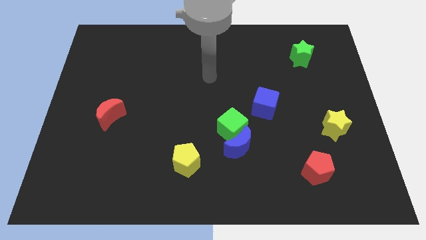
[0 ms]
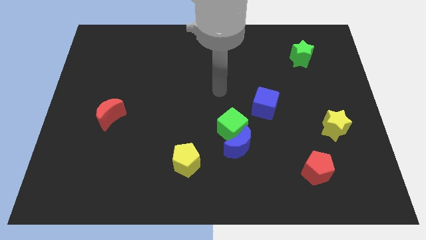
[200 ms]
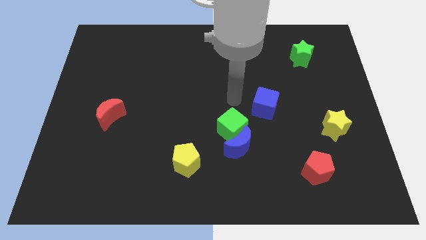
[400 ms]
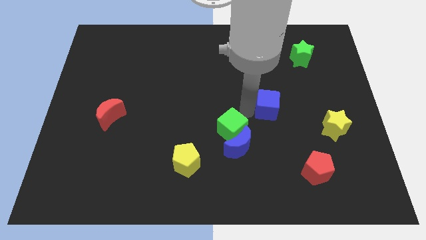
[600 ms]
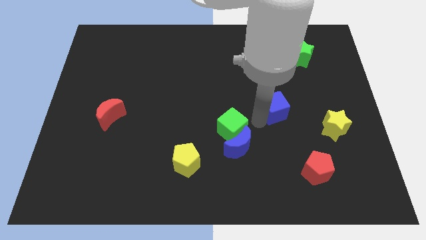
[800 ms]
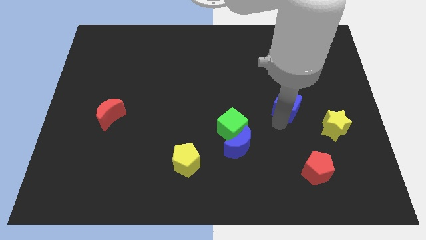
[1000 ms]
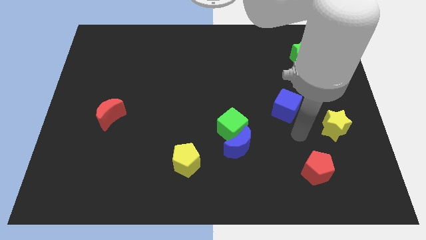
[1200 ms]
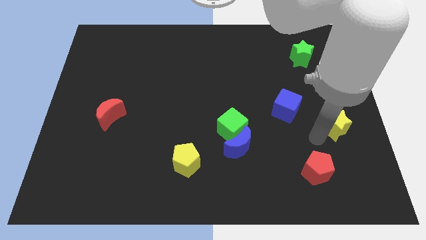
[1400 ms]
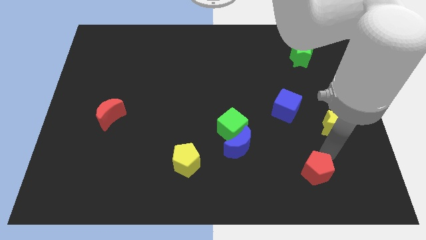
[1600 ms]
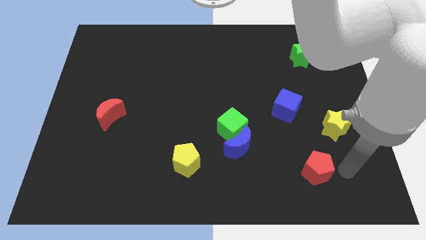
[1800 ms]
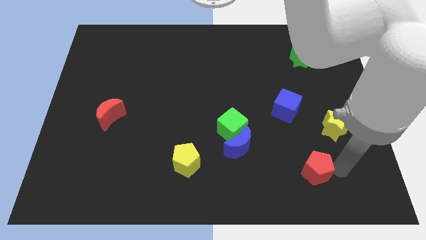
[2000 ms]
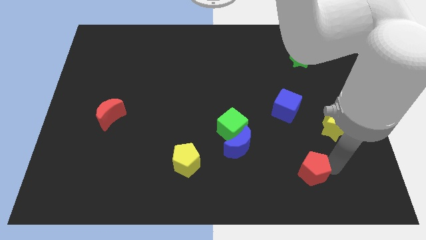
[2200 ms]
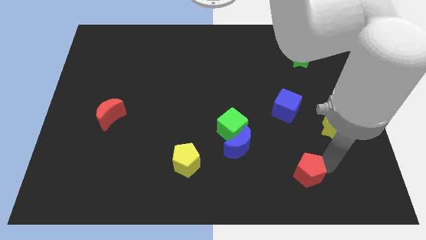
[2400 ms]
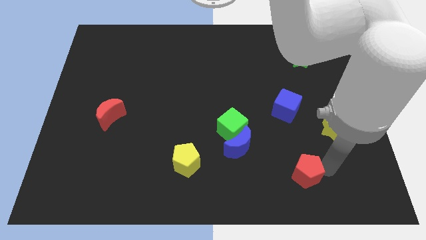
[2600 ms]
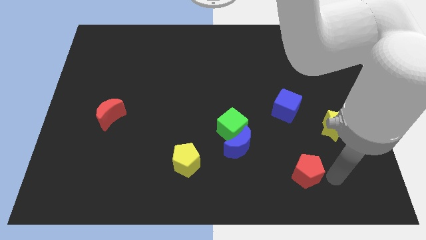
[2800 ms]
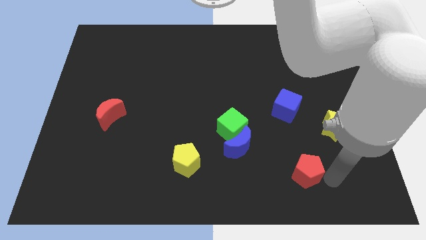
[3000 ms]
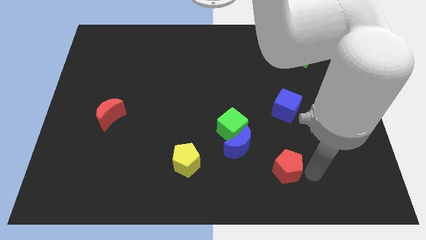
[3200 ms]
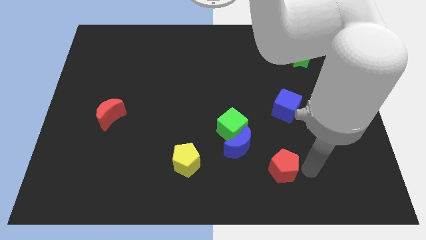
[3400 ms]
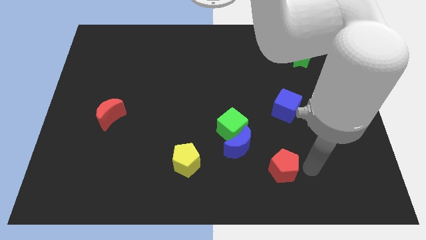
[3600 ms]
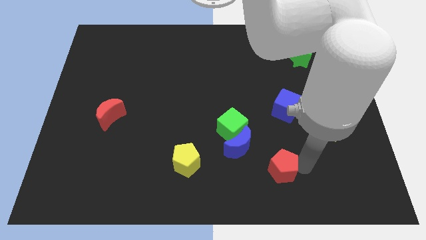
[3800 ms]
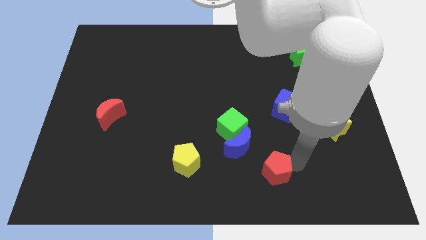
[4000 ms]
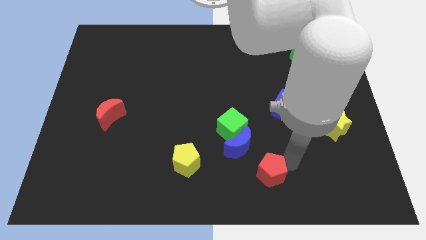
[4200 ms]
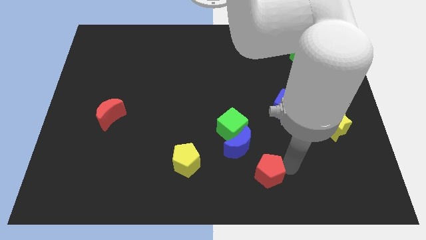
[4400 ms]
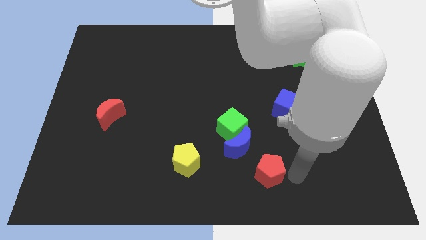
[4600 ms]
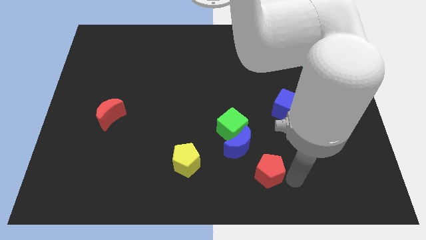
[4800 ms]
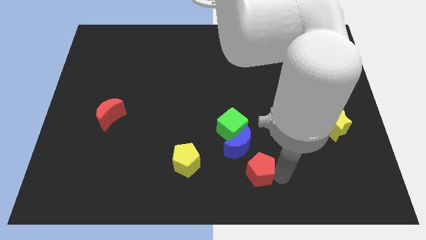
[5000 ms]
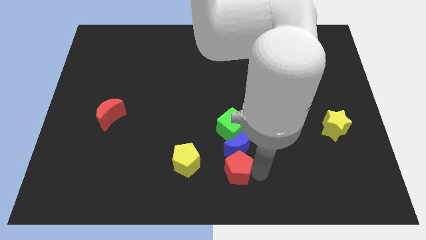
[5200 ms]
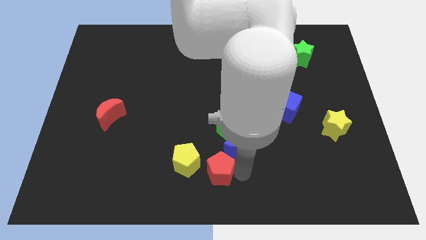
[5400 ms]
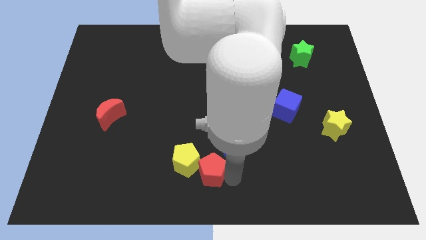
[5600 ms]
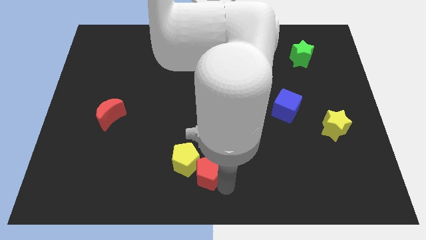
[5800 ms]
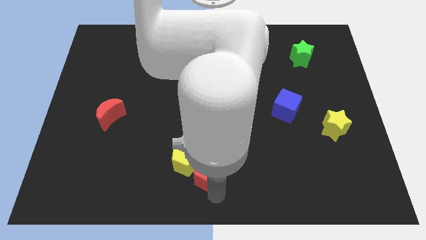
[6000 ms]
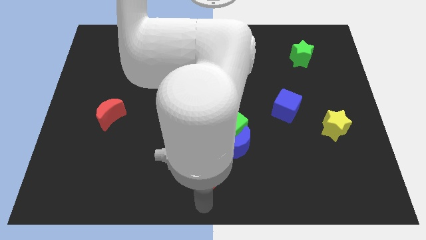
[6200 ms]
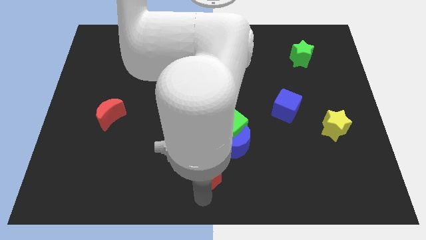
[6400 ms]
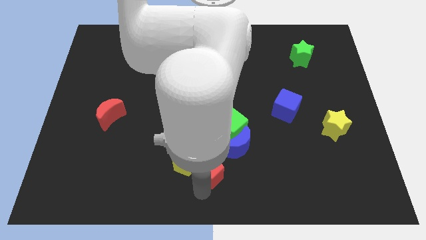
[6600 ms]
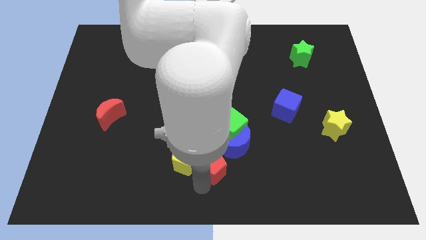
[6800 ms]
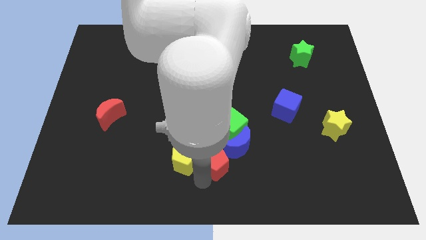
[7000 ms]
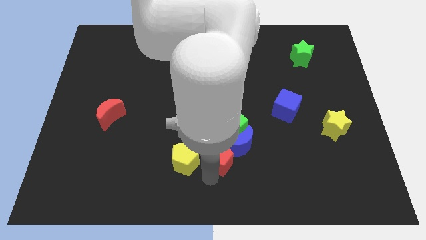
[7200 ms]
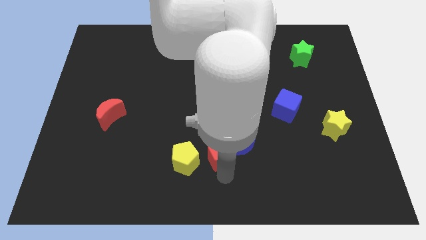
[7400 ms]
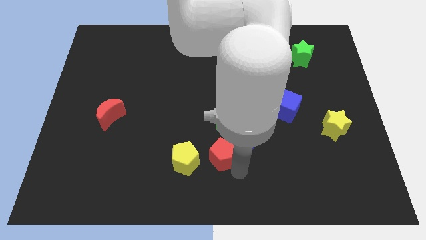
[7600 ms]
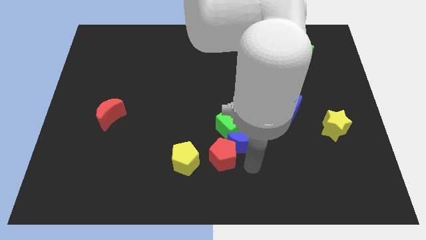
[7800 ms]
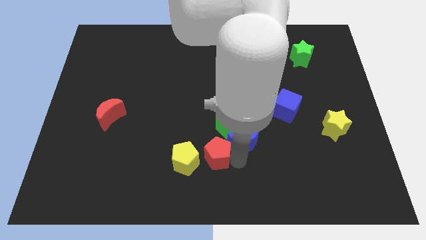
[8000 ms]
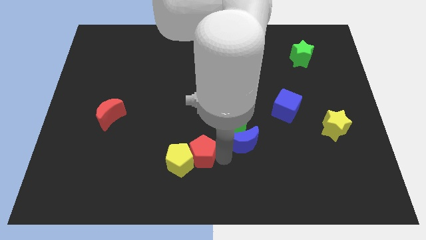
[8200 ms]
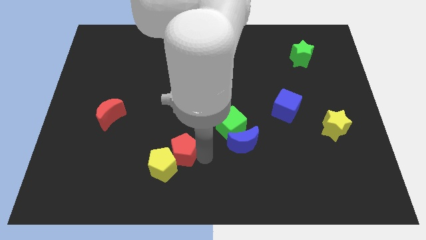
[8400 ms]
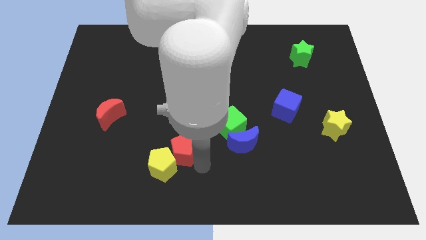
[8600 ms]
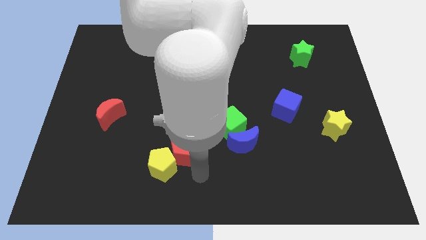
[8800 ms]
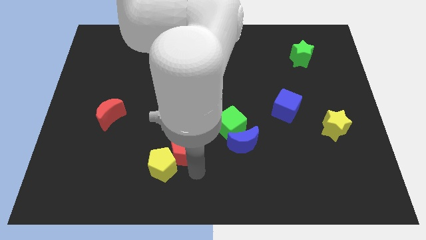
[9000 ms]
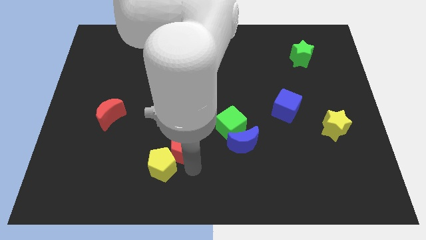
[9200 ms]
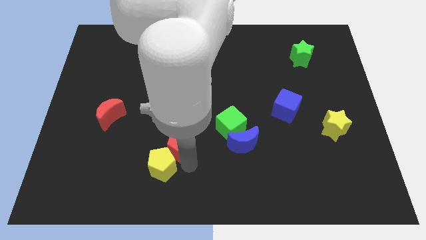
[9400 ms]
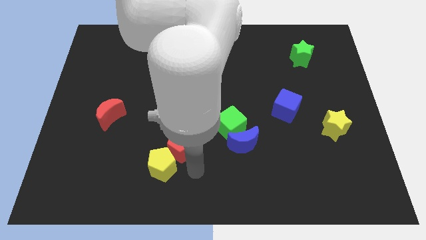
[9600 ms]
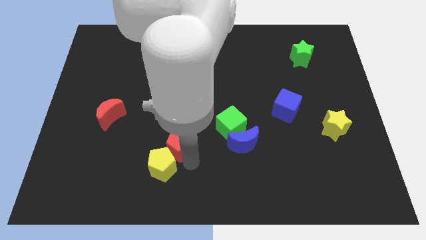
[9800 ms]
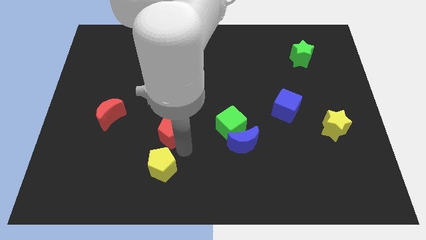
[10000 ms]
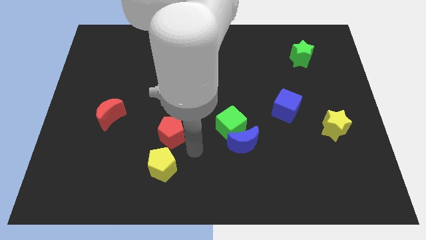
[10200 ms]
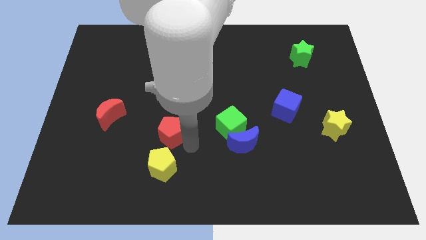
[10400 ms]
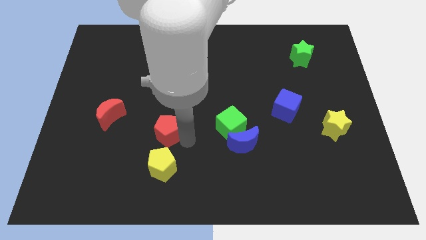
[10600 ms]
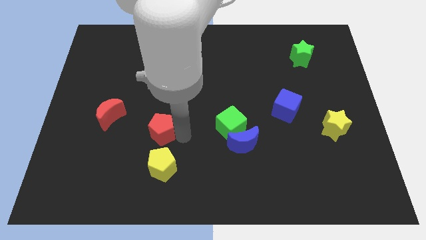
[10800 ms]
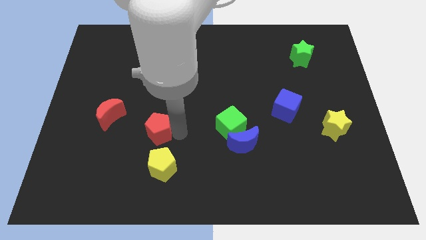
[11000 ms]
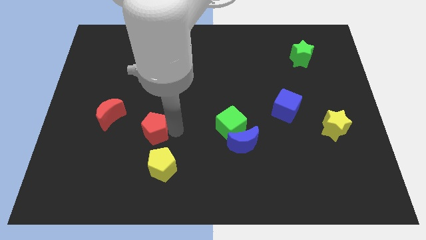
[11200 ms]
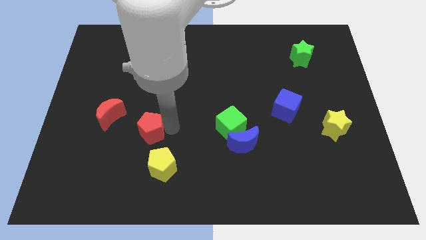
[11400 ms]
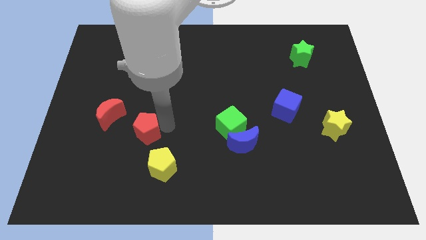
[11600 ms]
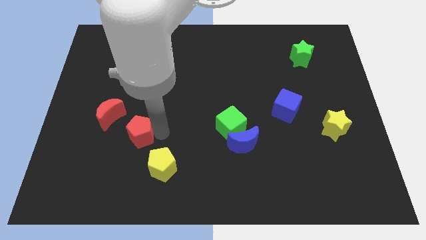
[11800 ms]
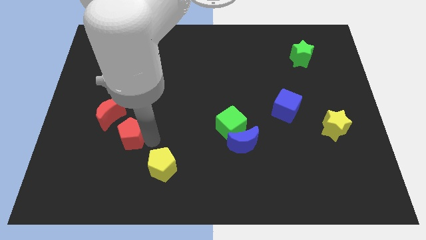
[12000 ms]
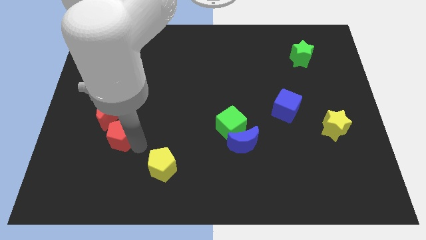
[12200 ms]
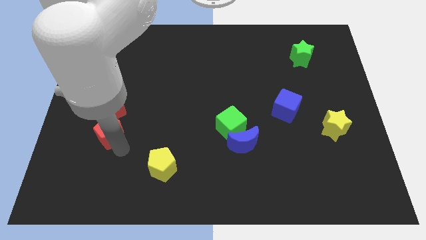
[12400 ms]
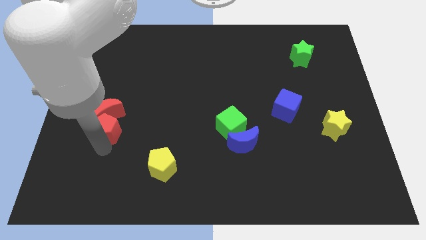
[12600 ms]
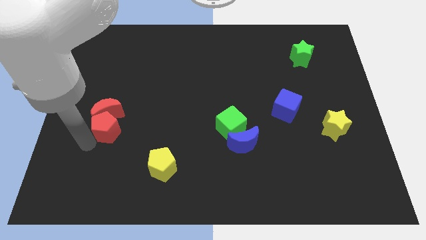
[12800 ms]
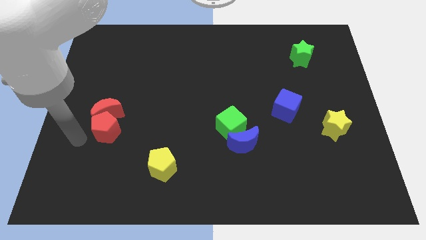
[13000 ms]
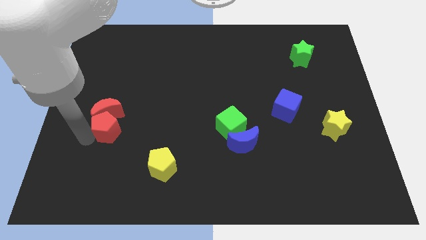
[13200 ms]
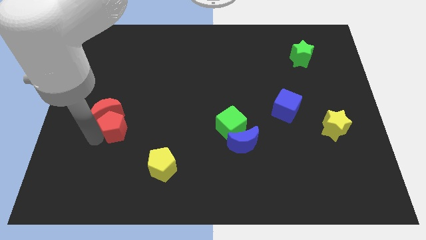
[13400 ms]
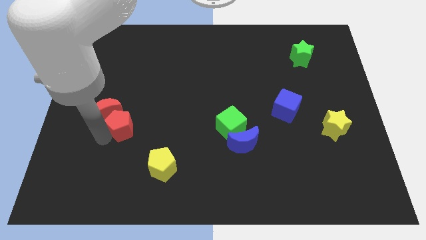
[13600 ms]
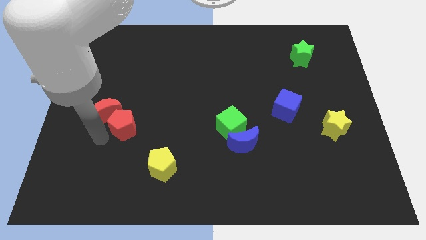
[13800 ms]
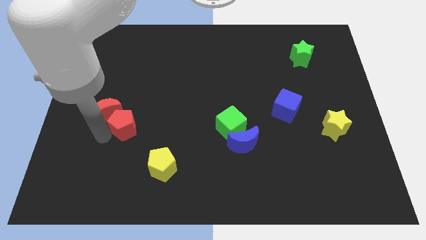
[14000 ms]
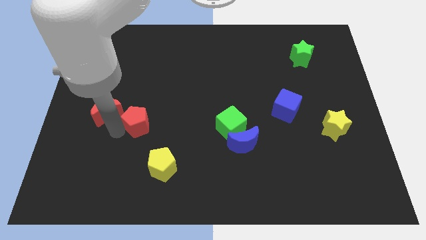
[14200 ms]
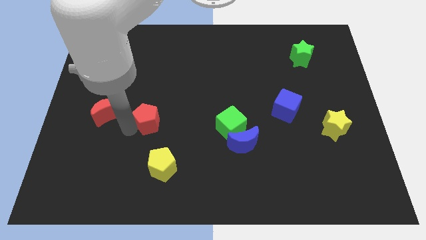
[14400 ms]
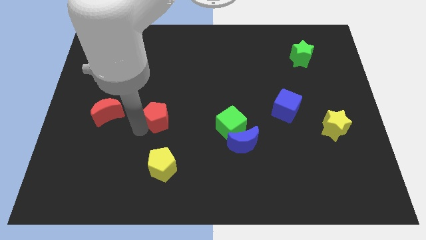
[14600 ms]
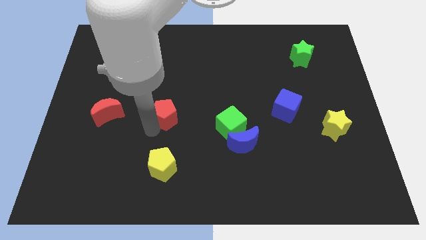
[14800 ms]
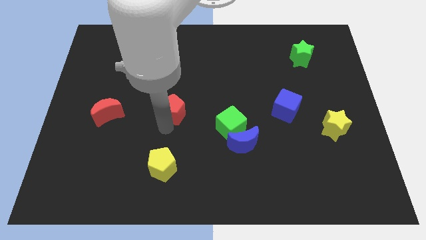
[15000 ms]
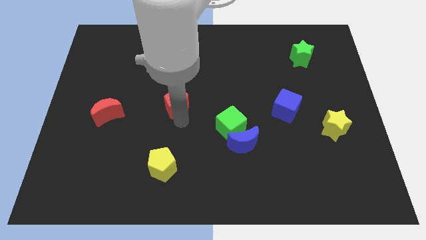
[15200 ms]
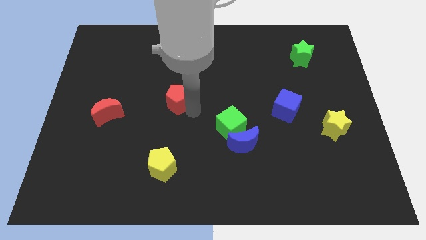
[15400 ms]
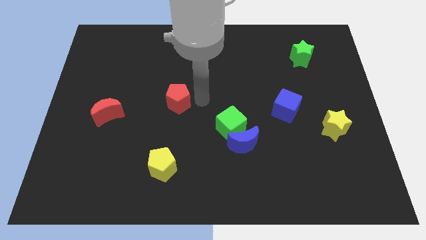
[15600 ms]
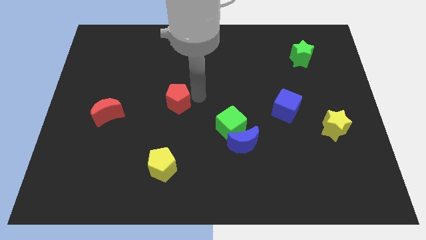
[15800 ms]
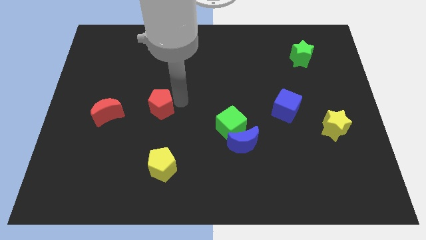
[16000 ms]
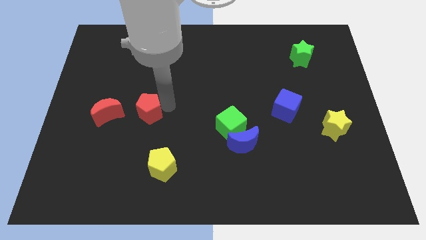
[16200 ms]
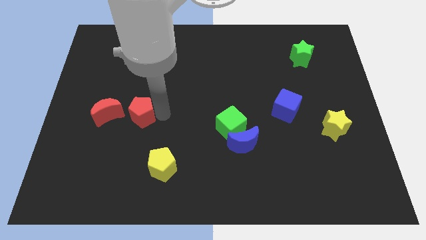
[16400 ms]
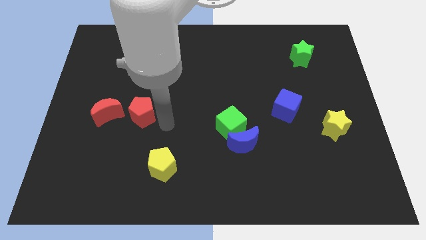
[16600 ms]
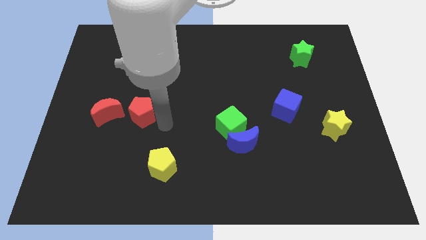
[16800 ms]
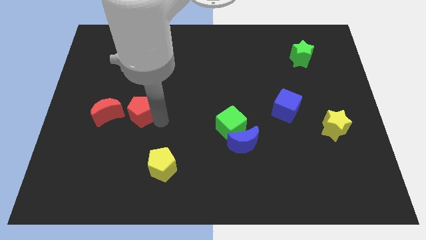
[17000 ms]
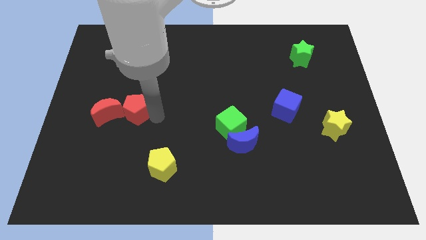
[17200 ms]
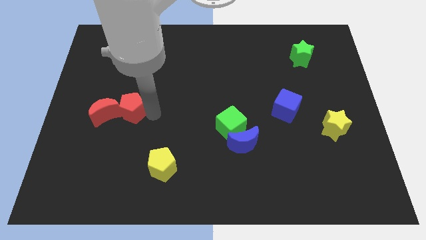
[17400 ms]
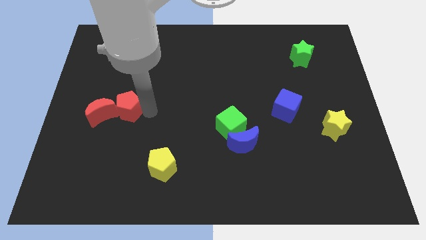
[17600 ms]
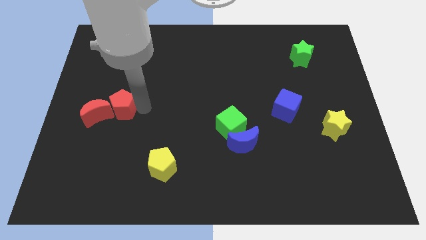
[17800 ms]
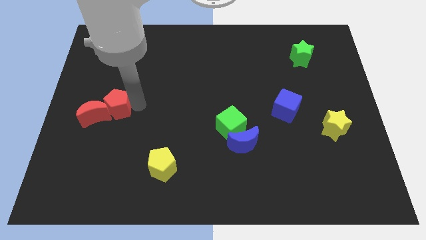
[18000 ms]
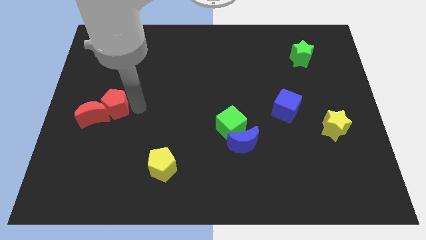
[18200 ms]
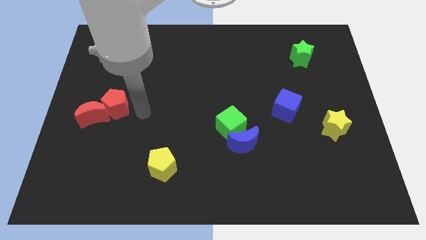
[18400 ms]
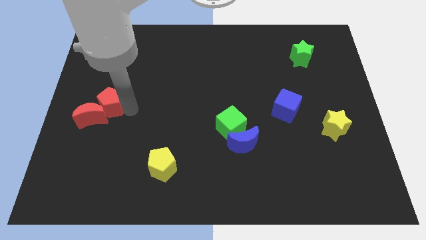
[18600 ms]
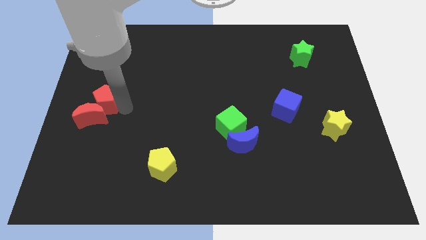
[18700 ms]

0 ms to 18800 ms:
move the red pentagon to the left side of the board
